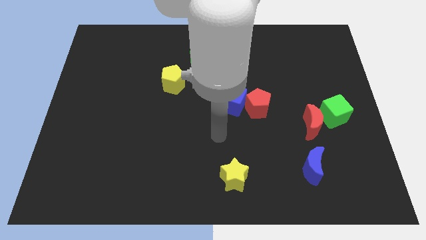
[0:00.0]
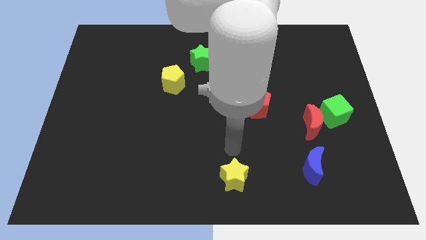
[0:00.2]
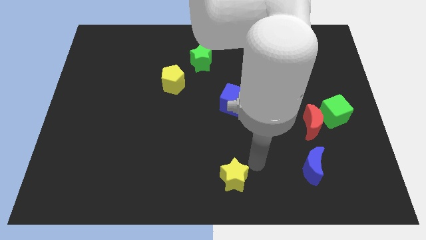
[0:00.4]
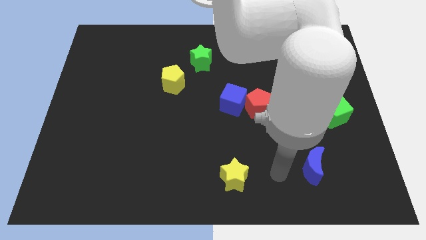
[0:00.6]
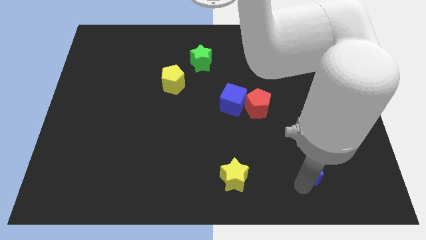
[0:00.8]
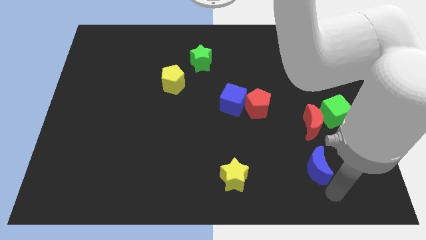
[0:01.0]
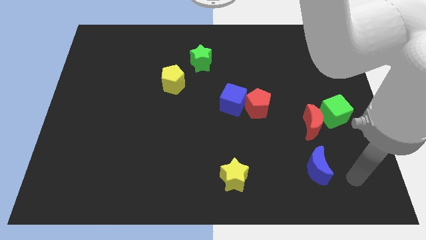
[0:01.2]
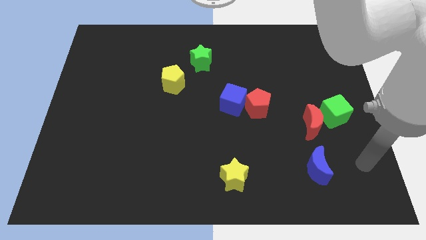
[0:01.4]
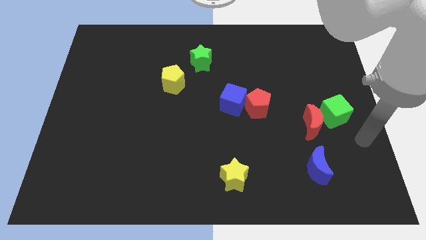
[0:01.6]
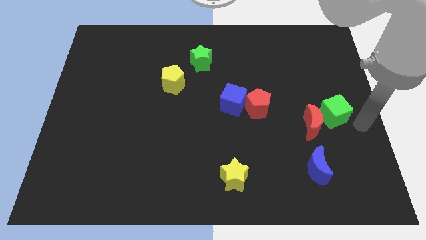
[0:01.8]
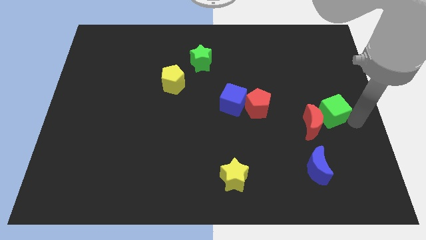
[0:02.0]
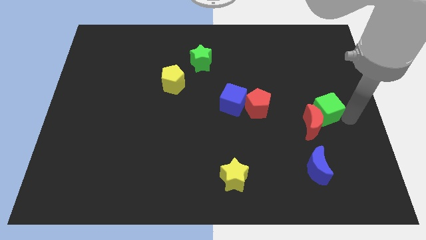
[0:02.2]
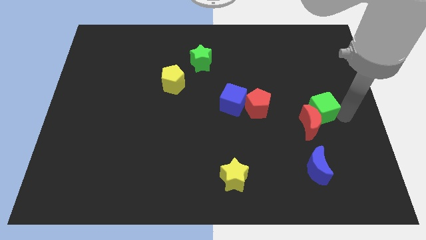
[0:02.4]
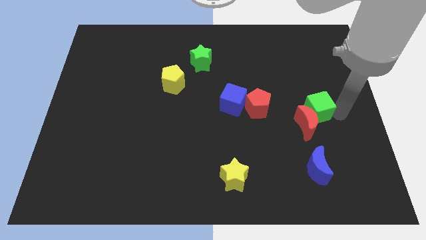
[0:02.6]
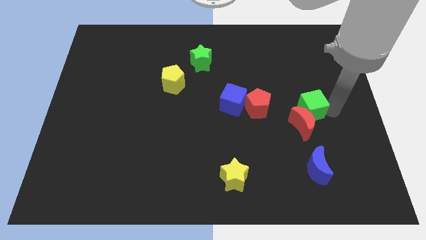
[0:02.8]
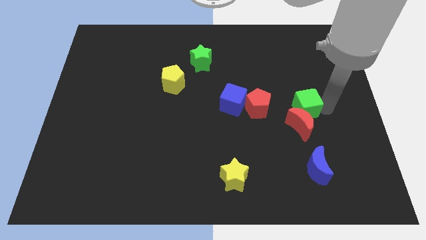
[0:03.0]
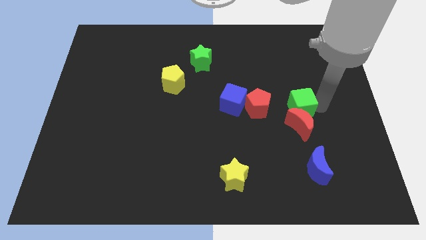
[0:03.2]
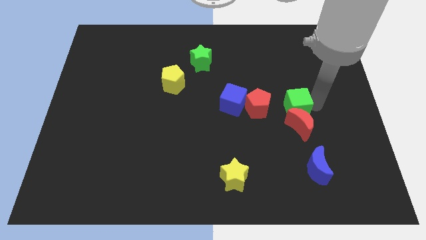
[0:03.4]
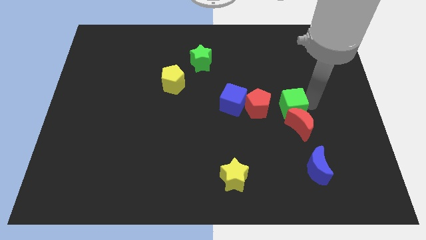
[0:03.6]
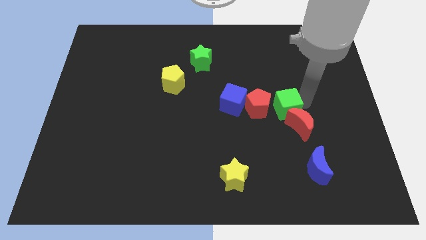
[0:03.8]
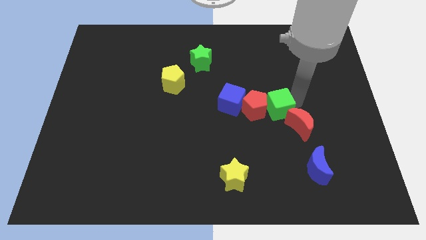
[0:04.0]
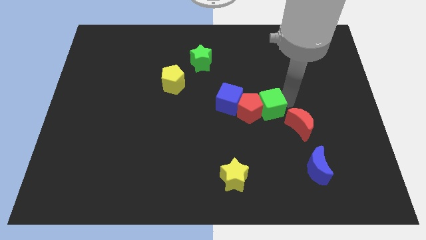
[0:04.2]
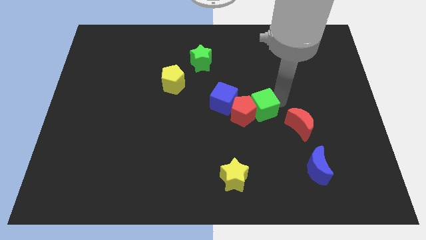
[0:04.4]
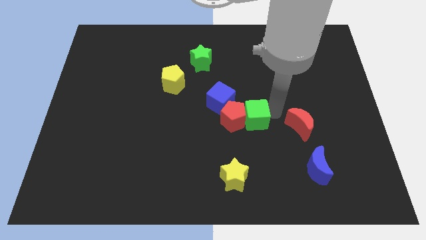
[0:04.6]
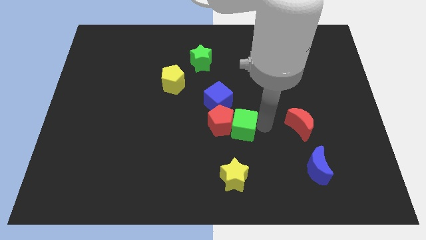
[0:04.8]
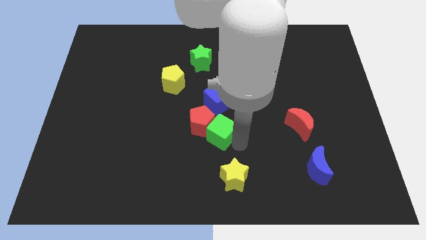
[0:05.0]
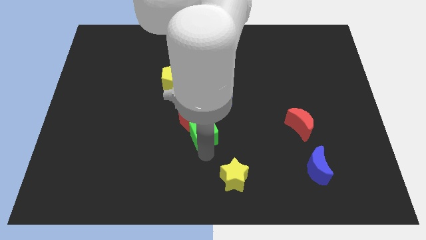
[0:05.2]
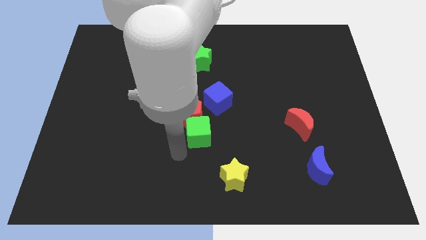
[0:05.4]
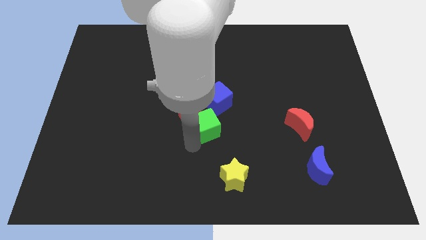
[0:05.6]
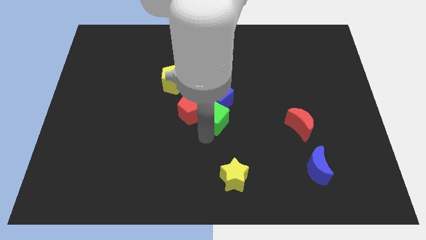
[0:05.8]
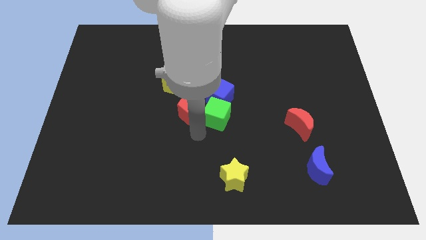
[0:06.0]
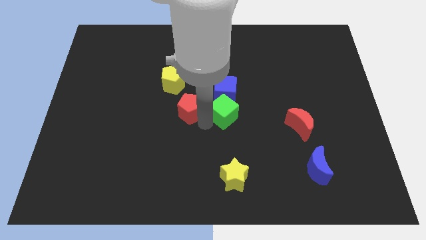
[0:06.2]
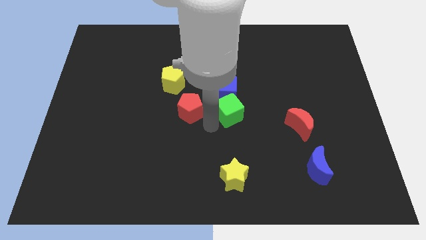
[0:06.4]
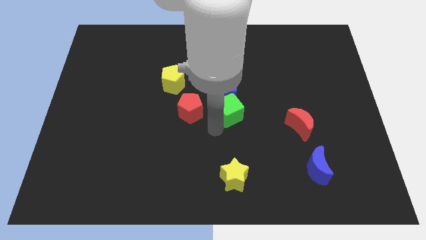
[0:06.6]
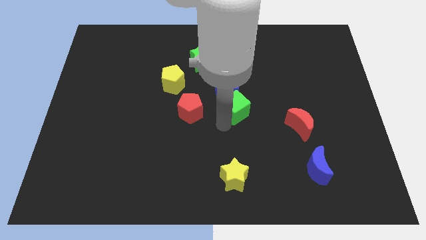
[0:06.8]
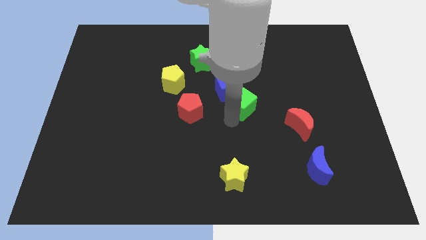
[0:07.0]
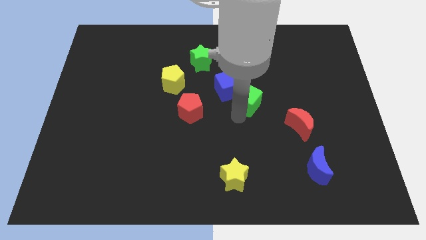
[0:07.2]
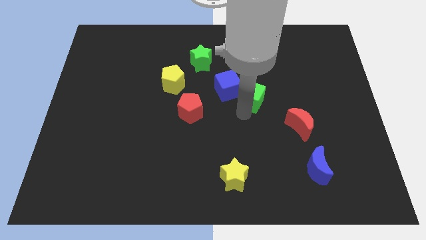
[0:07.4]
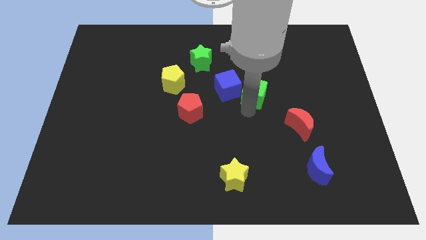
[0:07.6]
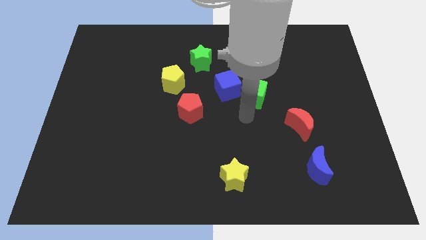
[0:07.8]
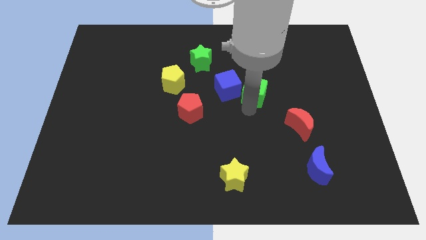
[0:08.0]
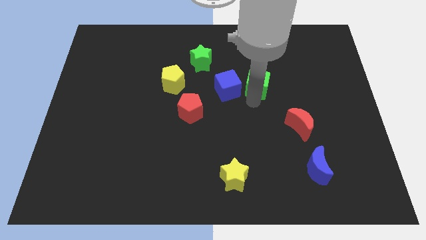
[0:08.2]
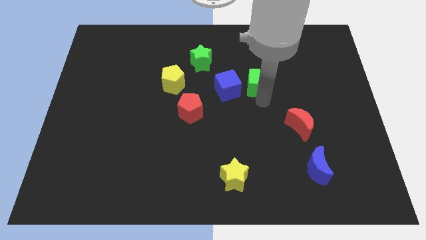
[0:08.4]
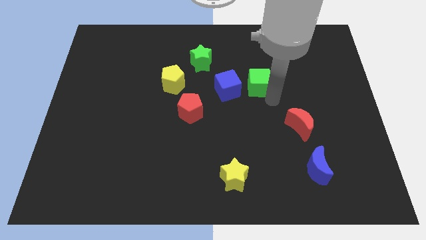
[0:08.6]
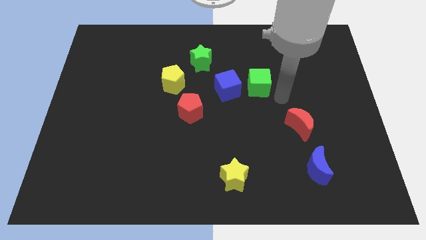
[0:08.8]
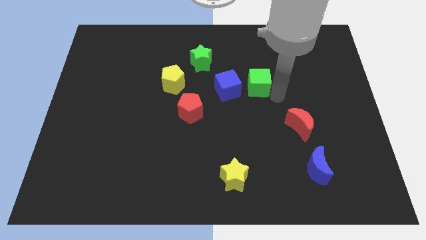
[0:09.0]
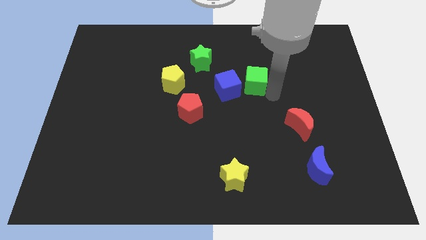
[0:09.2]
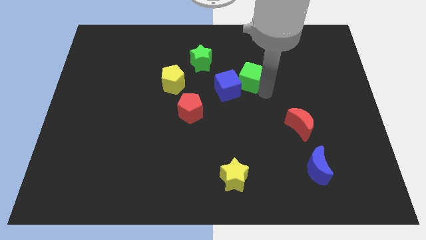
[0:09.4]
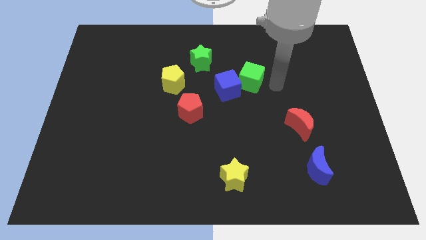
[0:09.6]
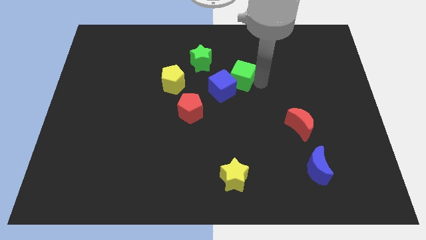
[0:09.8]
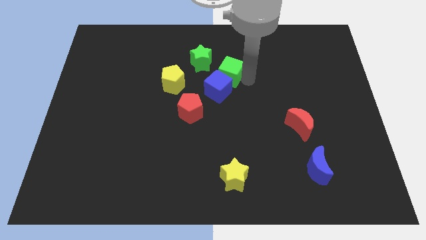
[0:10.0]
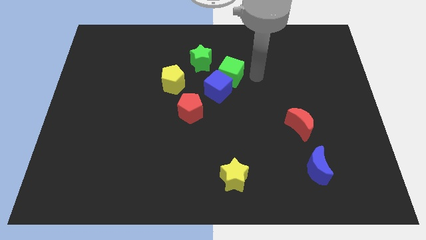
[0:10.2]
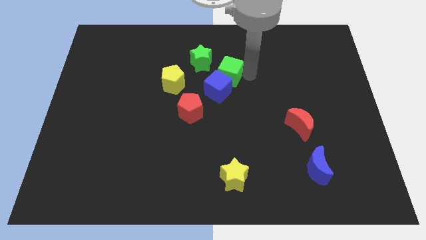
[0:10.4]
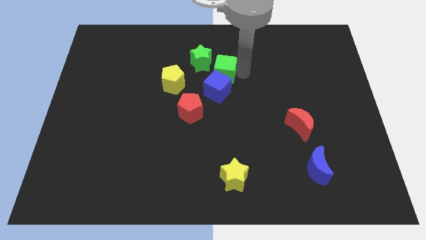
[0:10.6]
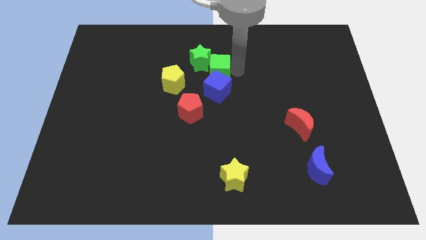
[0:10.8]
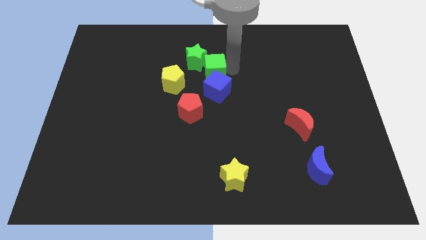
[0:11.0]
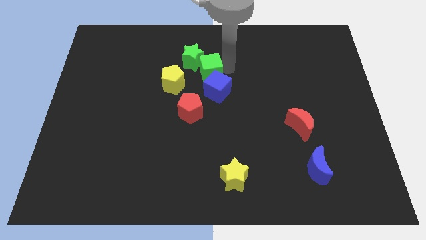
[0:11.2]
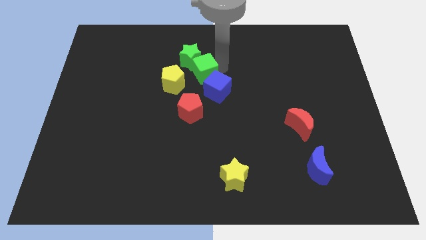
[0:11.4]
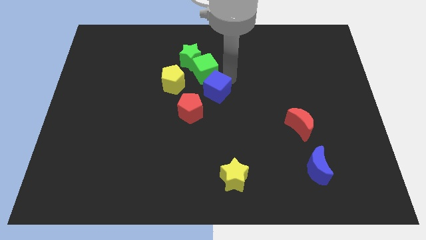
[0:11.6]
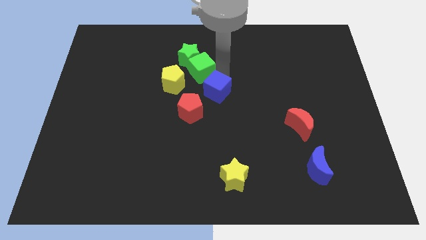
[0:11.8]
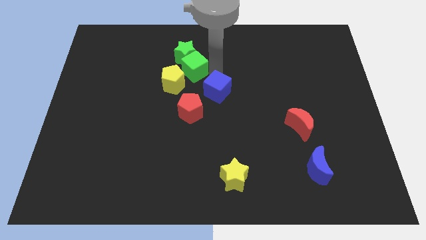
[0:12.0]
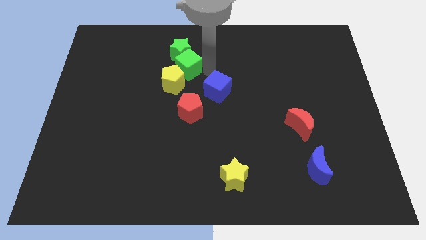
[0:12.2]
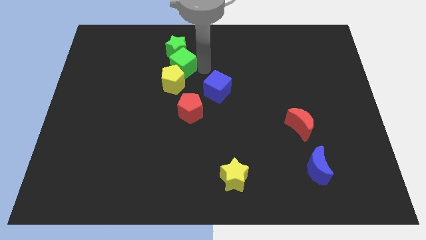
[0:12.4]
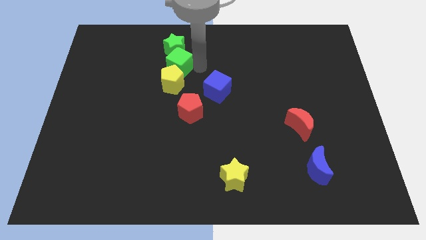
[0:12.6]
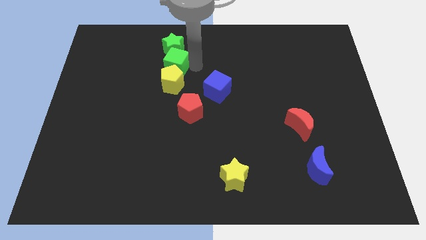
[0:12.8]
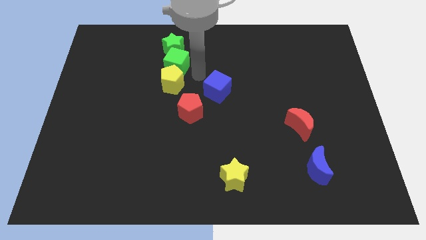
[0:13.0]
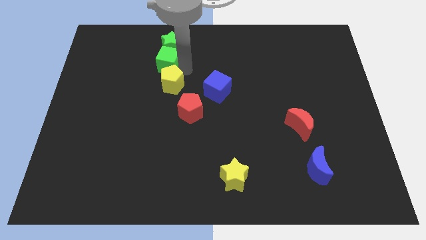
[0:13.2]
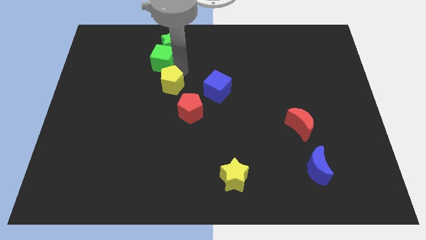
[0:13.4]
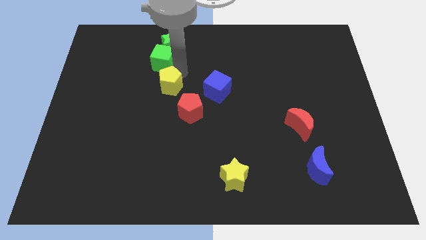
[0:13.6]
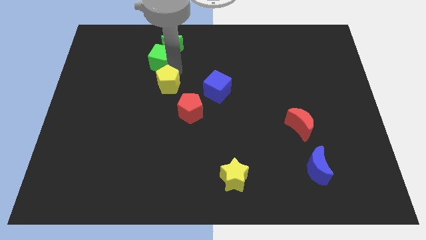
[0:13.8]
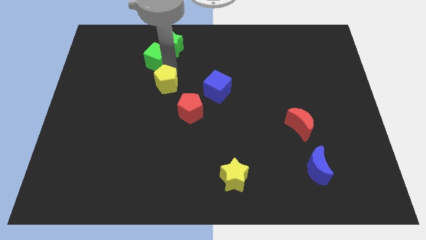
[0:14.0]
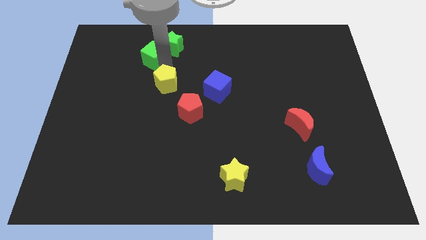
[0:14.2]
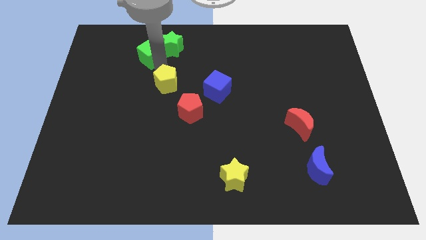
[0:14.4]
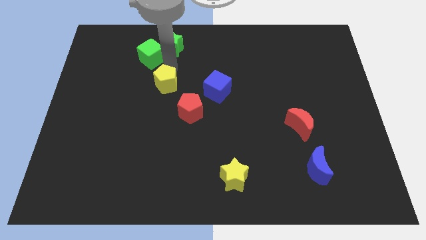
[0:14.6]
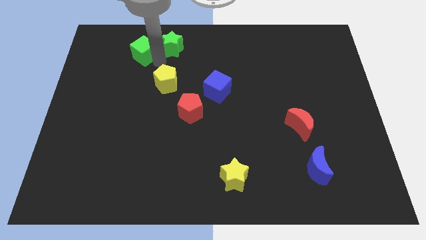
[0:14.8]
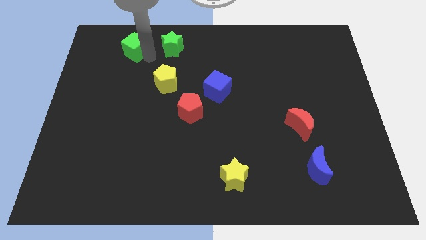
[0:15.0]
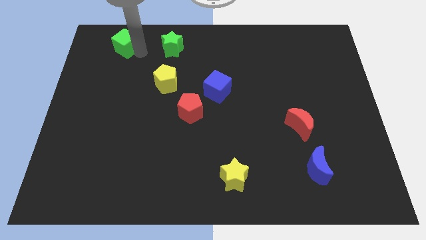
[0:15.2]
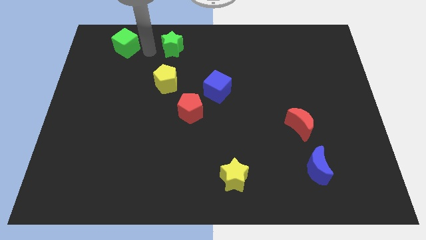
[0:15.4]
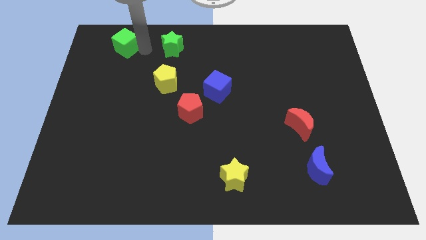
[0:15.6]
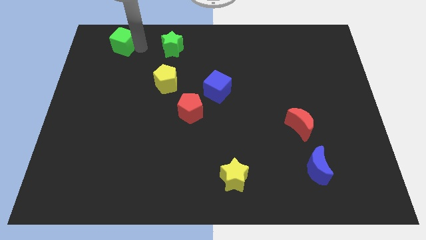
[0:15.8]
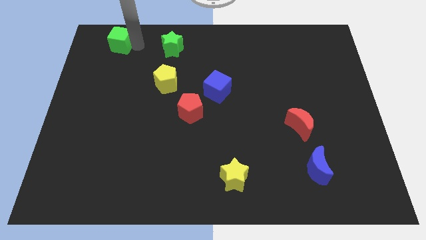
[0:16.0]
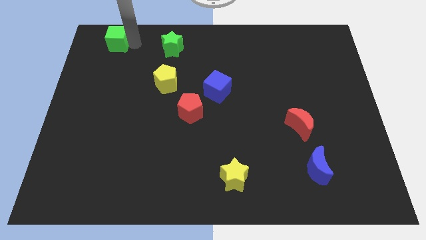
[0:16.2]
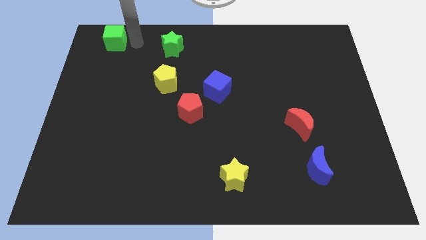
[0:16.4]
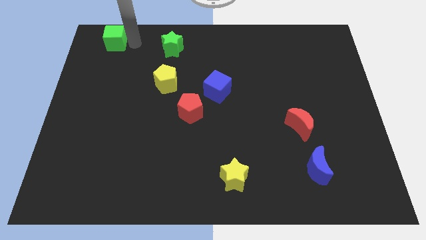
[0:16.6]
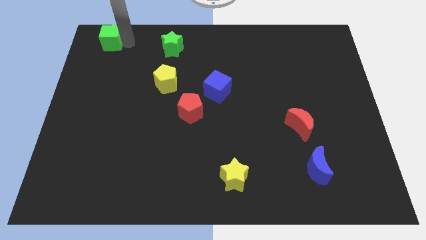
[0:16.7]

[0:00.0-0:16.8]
push the green cube to the top left of the board
